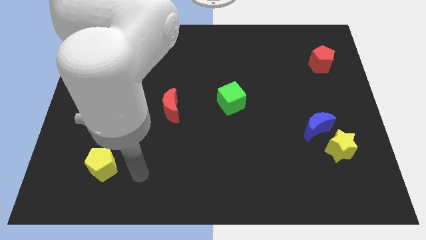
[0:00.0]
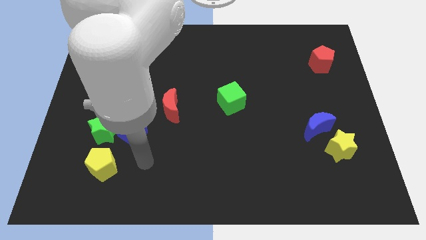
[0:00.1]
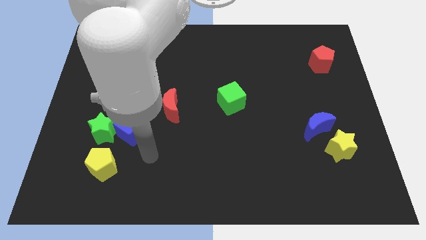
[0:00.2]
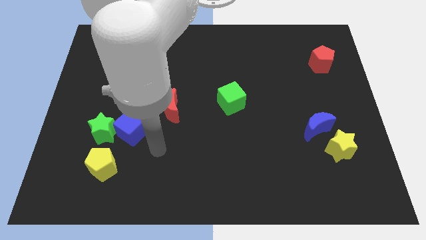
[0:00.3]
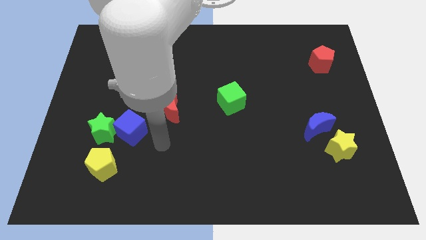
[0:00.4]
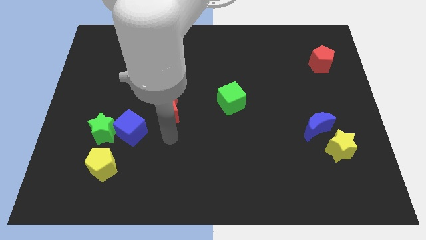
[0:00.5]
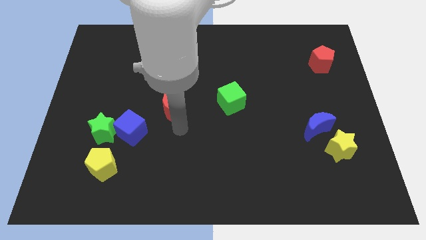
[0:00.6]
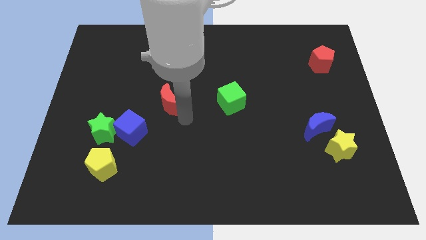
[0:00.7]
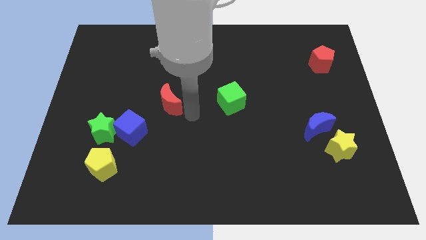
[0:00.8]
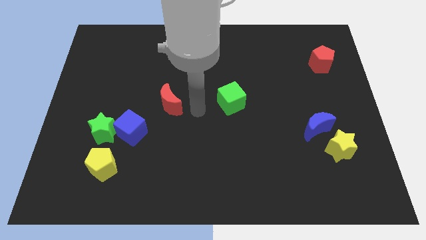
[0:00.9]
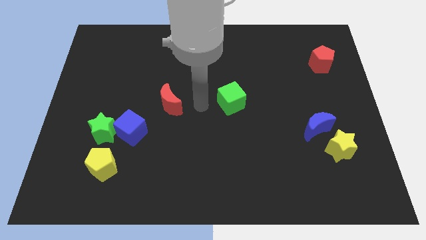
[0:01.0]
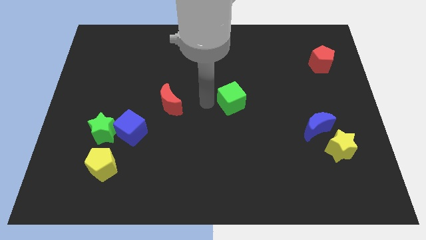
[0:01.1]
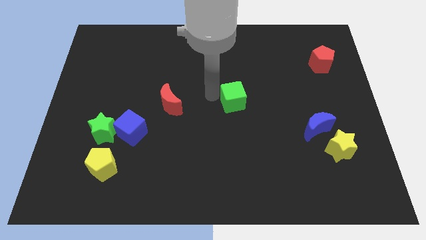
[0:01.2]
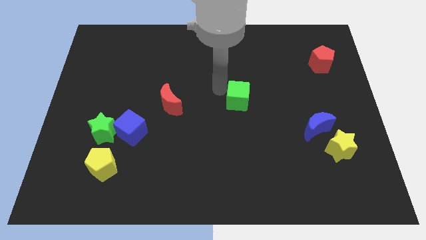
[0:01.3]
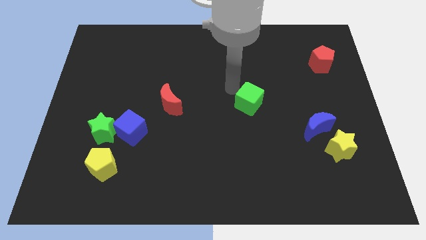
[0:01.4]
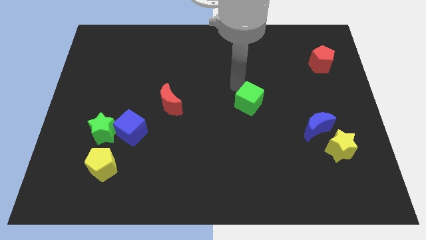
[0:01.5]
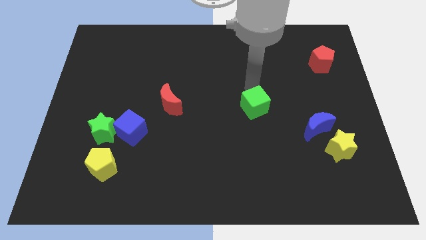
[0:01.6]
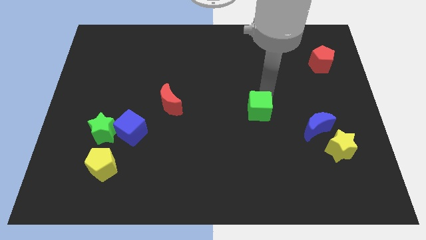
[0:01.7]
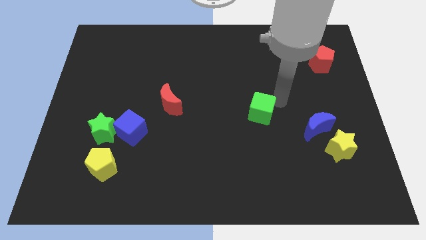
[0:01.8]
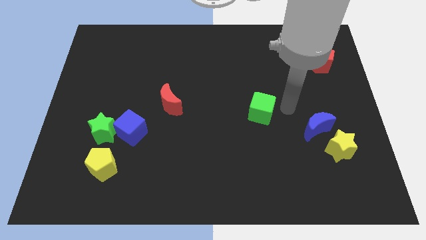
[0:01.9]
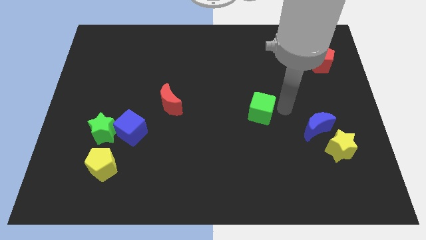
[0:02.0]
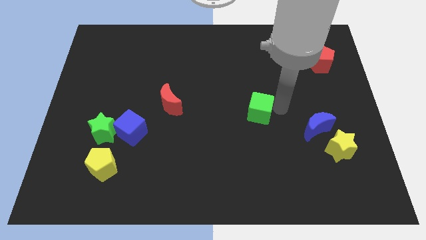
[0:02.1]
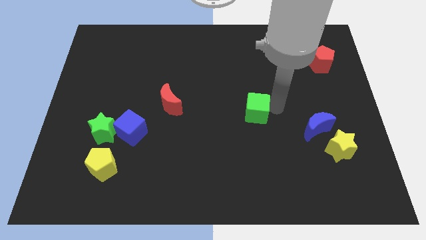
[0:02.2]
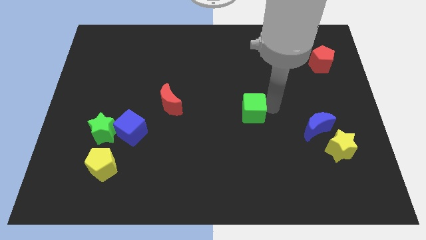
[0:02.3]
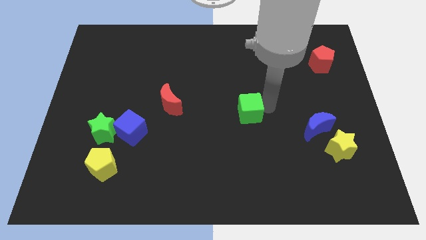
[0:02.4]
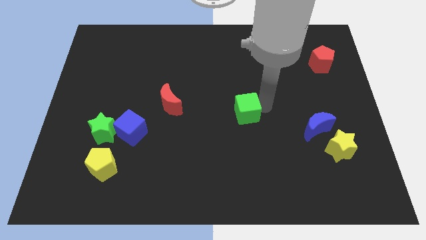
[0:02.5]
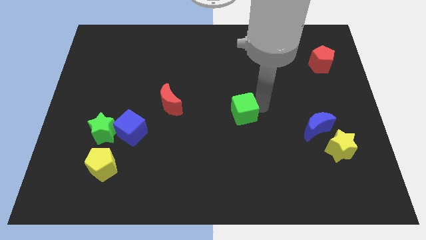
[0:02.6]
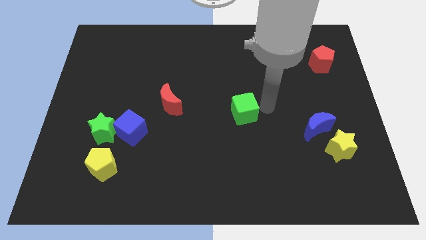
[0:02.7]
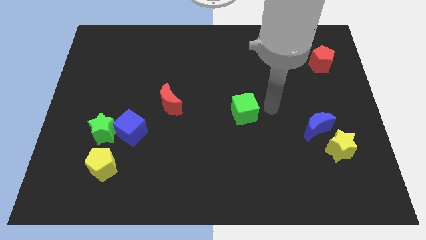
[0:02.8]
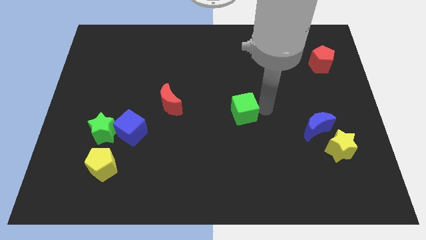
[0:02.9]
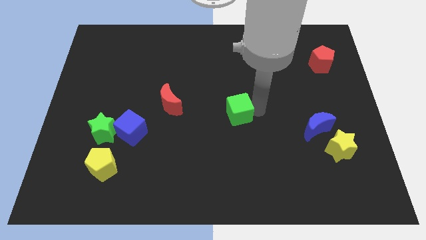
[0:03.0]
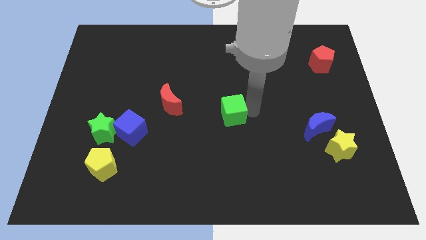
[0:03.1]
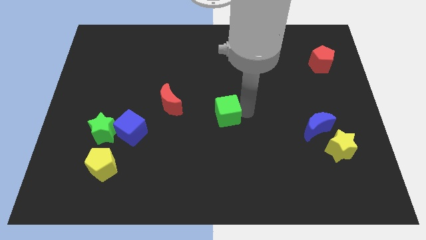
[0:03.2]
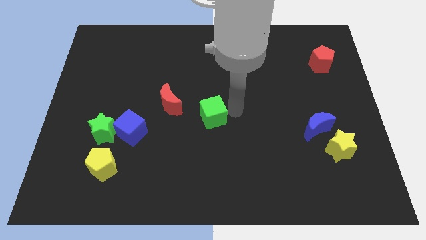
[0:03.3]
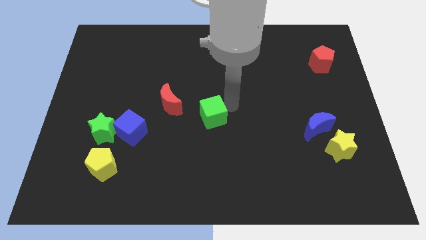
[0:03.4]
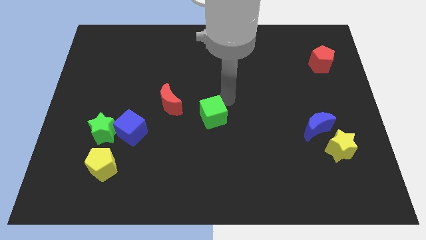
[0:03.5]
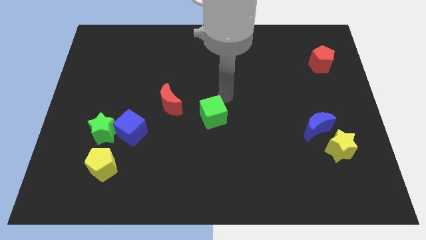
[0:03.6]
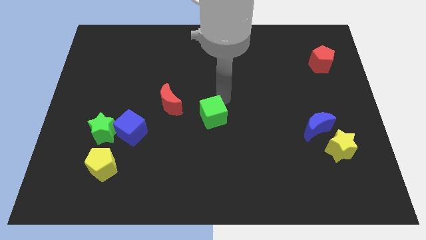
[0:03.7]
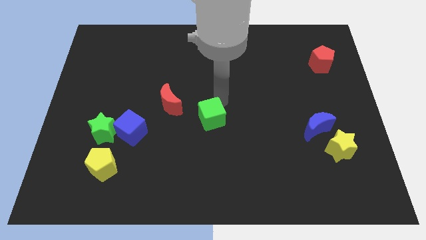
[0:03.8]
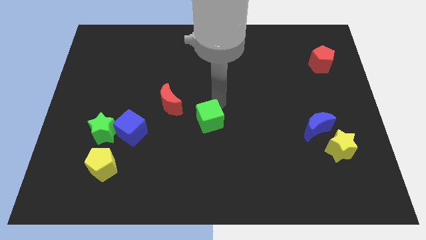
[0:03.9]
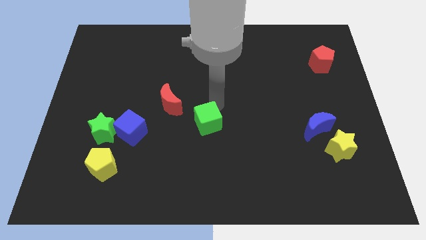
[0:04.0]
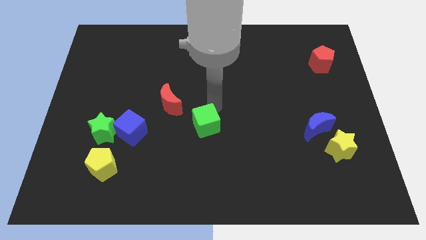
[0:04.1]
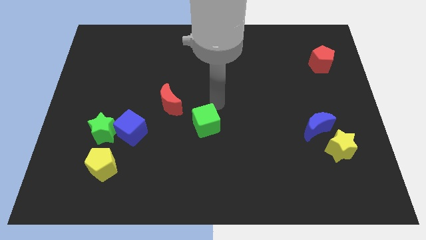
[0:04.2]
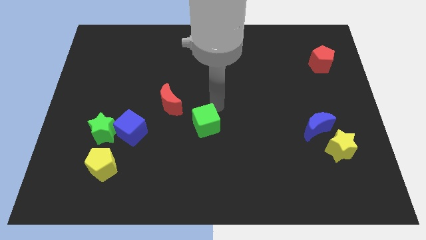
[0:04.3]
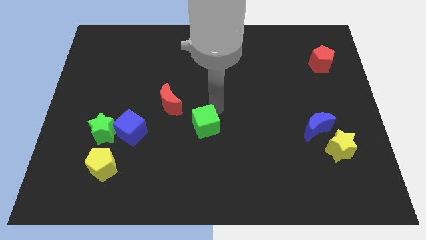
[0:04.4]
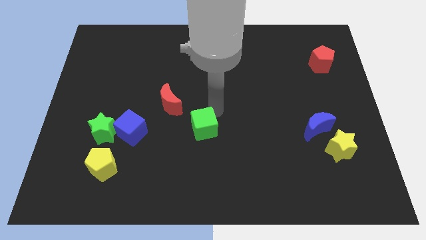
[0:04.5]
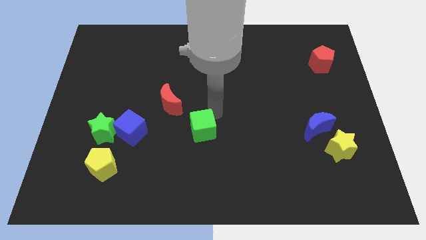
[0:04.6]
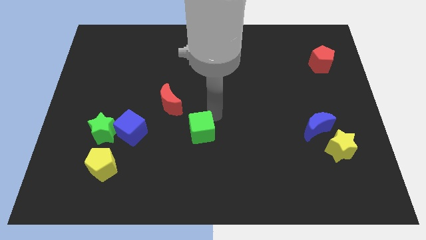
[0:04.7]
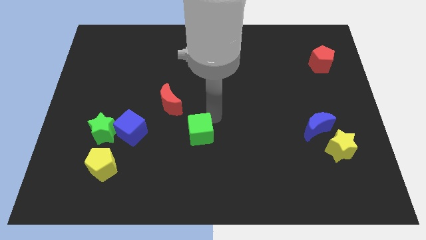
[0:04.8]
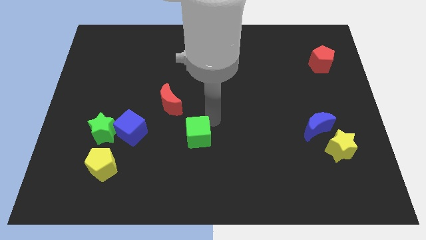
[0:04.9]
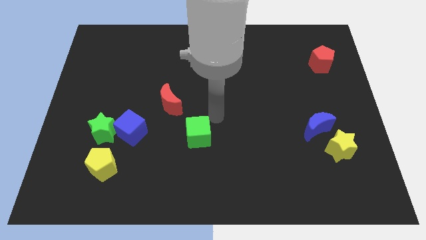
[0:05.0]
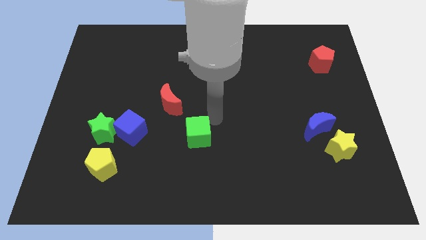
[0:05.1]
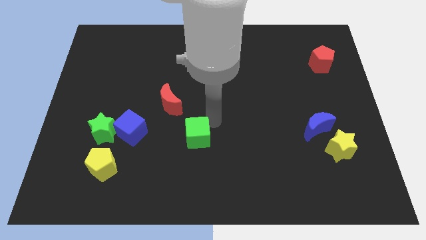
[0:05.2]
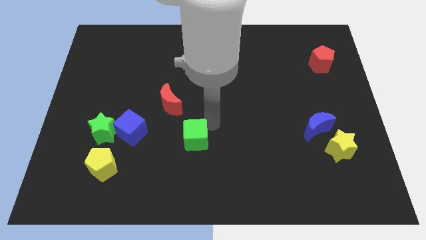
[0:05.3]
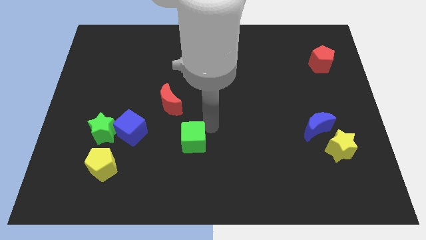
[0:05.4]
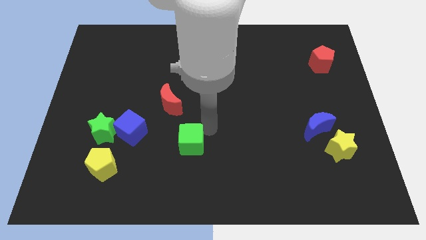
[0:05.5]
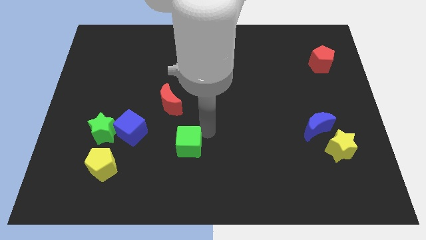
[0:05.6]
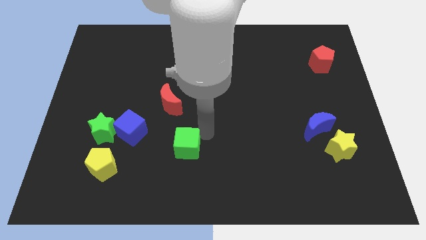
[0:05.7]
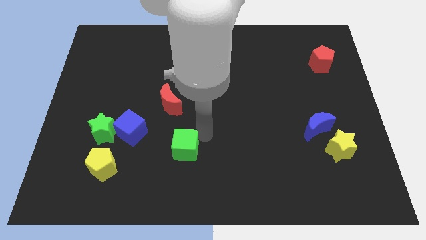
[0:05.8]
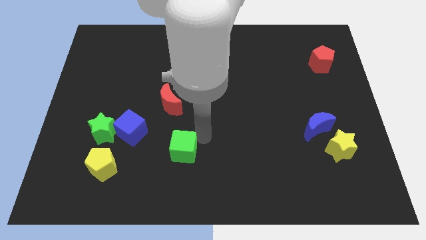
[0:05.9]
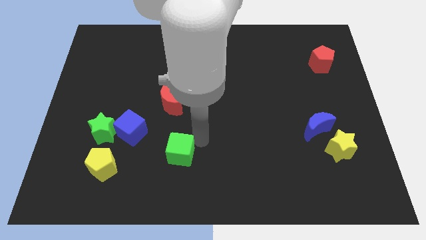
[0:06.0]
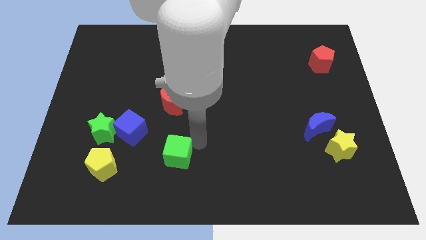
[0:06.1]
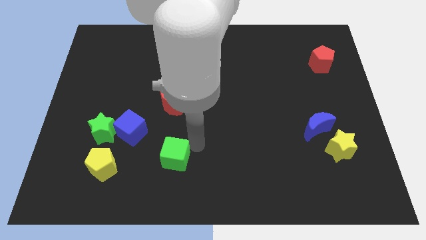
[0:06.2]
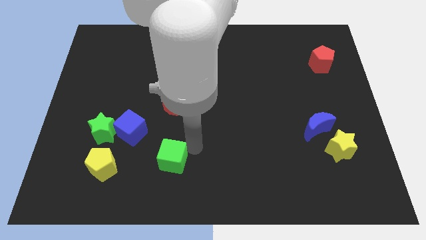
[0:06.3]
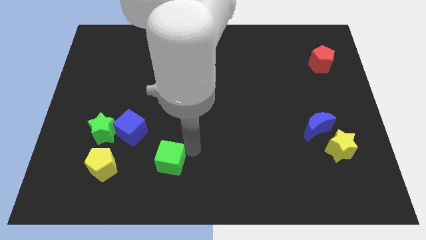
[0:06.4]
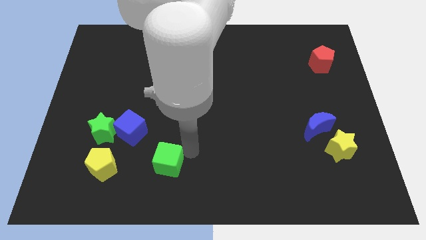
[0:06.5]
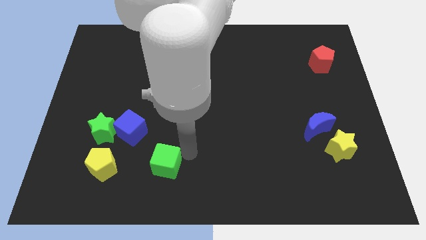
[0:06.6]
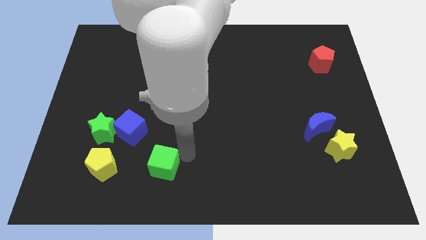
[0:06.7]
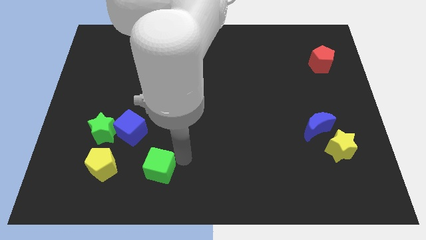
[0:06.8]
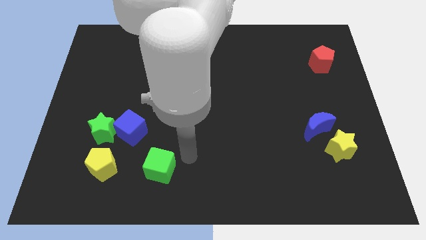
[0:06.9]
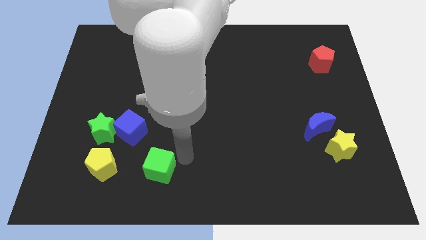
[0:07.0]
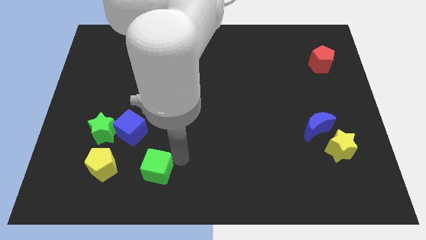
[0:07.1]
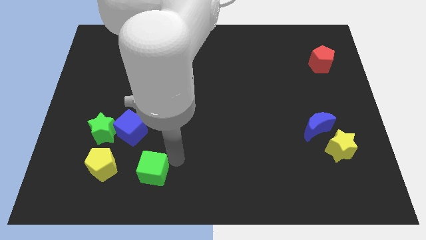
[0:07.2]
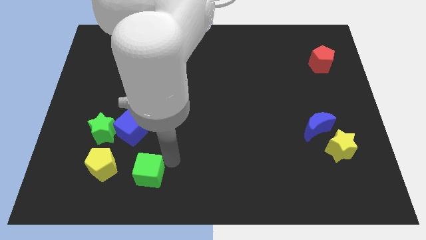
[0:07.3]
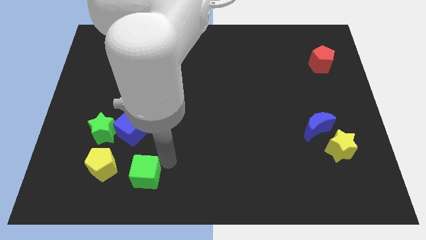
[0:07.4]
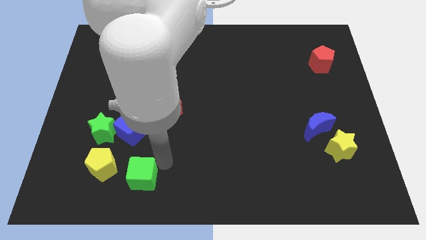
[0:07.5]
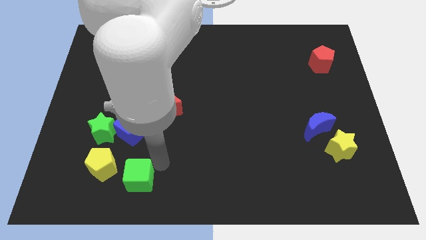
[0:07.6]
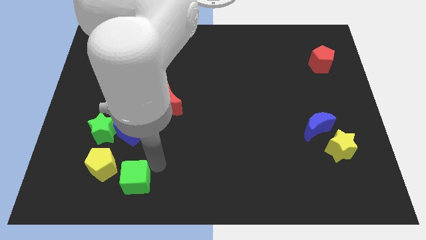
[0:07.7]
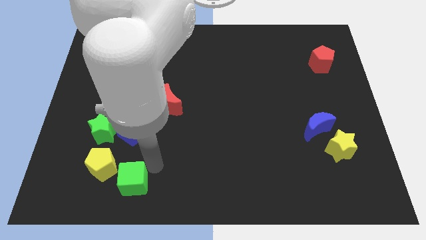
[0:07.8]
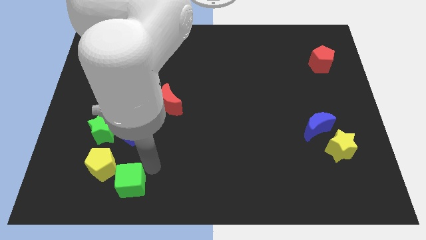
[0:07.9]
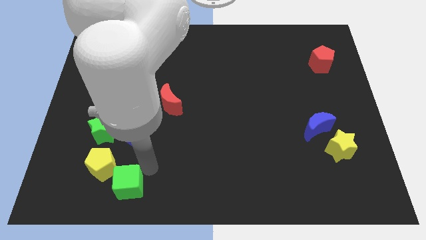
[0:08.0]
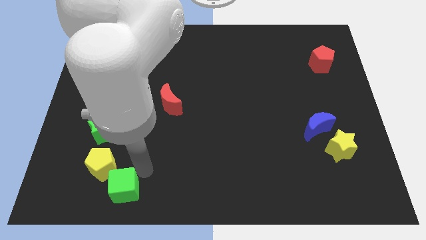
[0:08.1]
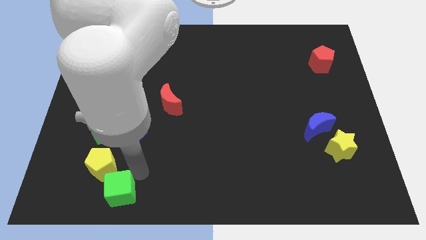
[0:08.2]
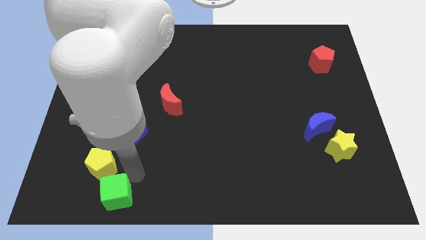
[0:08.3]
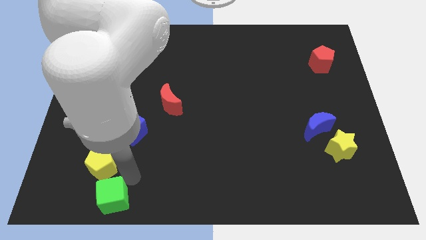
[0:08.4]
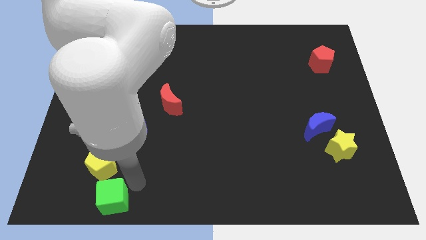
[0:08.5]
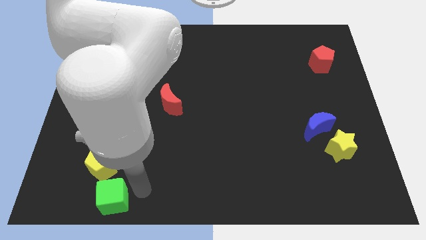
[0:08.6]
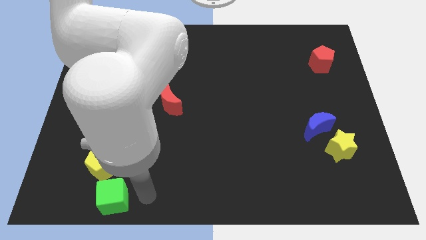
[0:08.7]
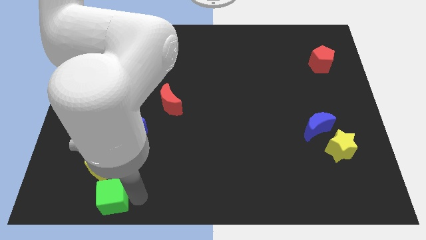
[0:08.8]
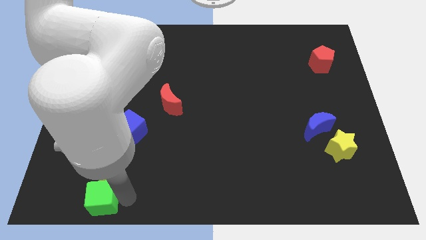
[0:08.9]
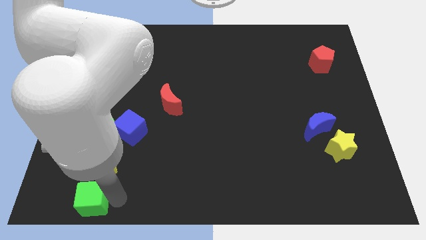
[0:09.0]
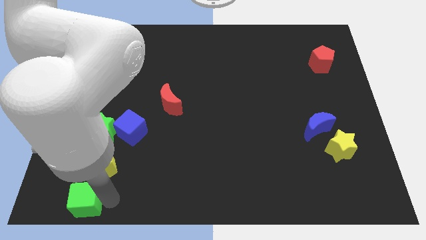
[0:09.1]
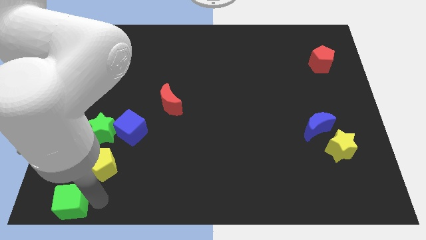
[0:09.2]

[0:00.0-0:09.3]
slide the green cube to the bottom left of the board
